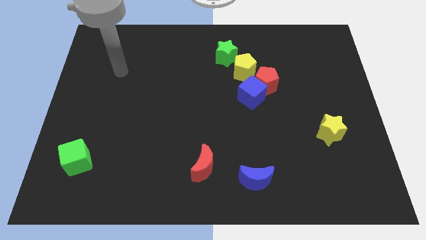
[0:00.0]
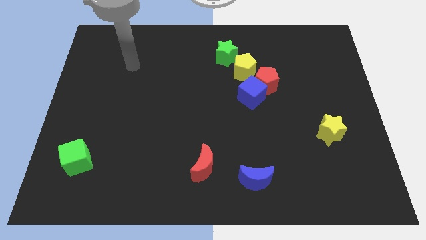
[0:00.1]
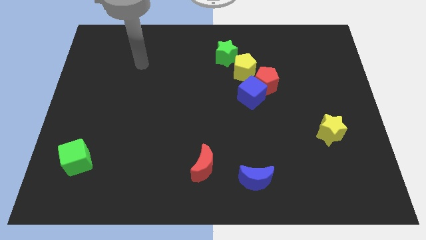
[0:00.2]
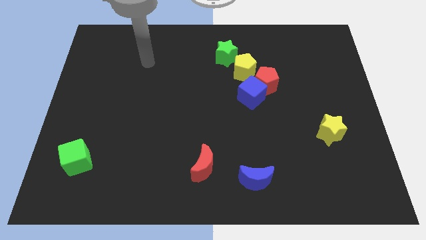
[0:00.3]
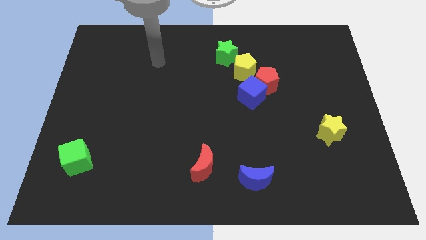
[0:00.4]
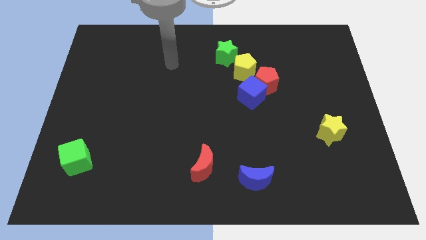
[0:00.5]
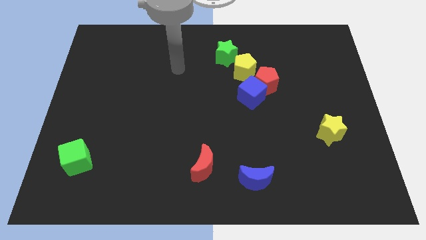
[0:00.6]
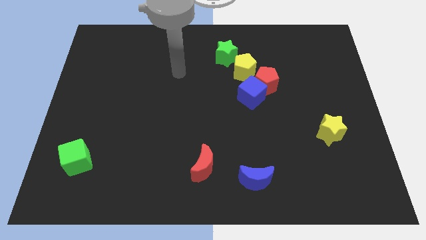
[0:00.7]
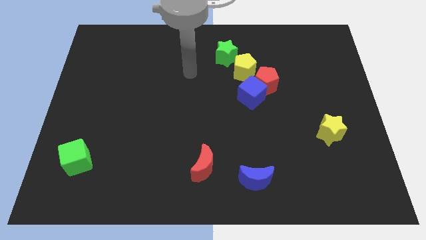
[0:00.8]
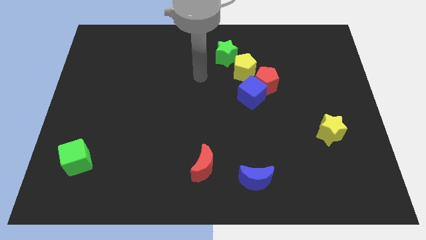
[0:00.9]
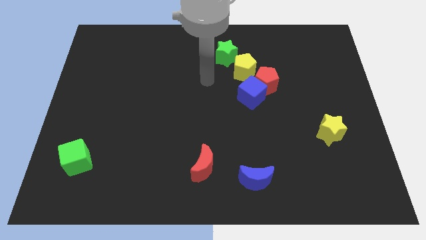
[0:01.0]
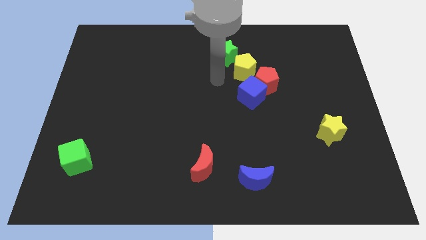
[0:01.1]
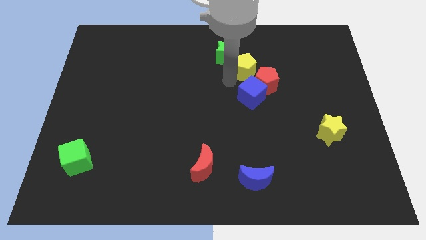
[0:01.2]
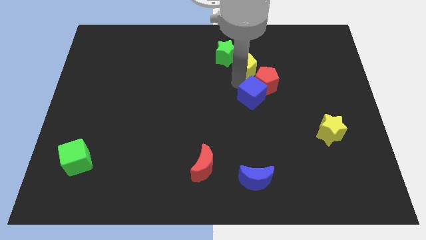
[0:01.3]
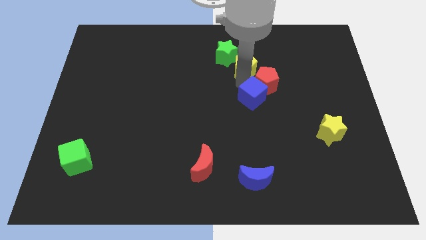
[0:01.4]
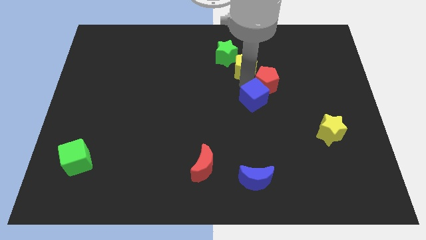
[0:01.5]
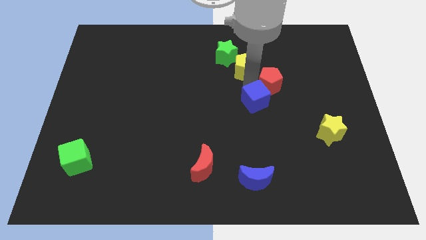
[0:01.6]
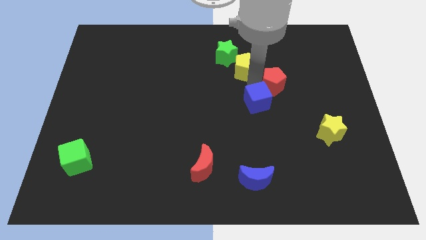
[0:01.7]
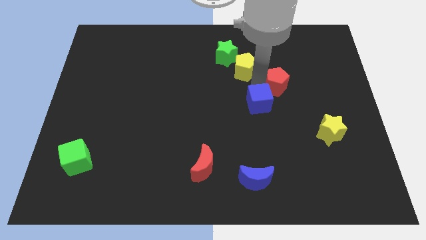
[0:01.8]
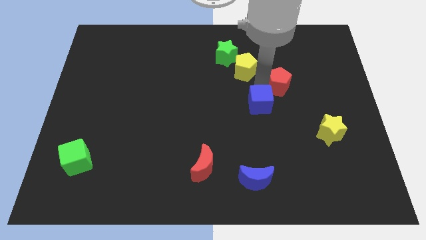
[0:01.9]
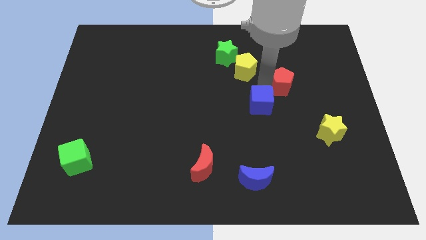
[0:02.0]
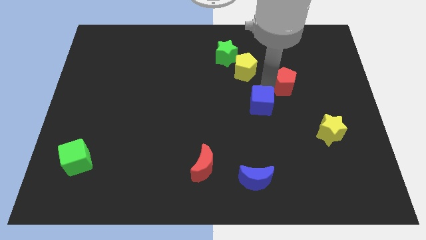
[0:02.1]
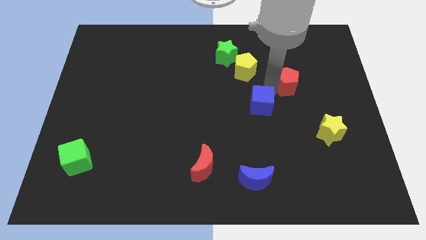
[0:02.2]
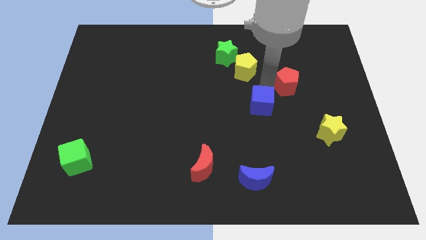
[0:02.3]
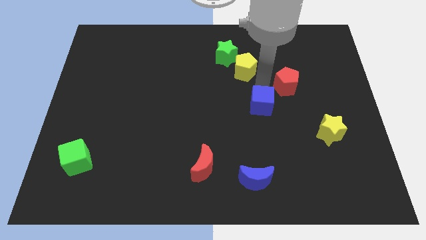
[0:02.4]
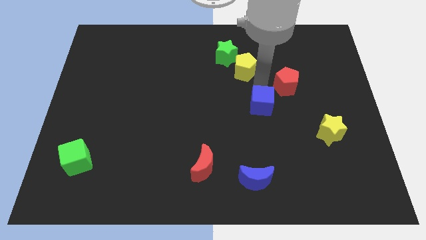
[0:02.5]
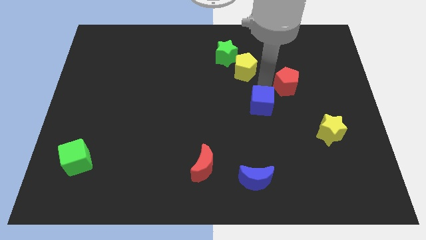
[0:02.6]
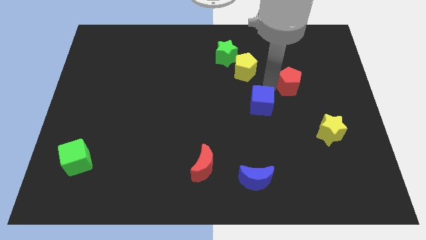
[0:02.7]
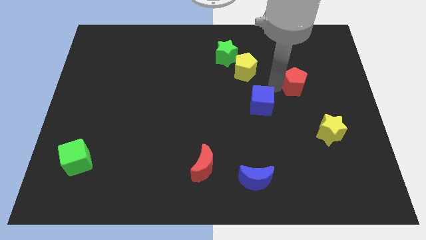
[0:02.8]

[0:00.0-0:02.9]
move the red pentagon away from the blue cube and yellow pentagon

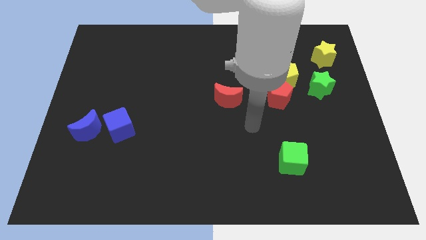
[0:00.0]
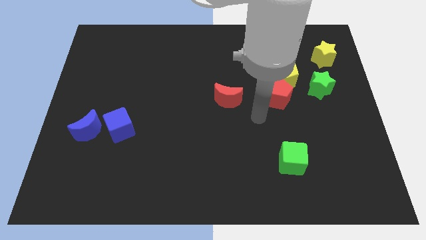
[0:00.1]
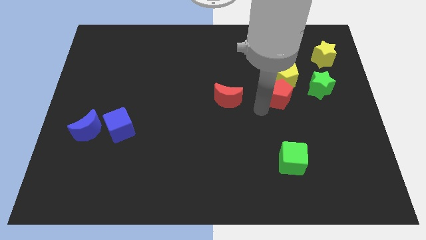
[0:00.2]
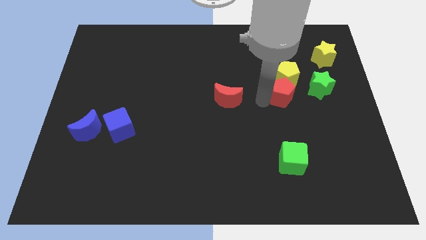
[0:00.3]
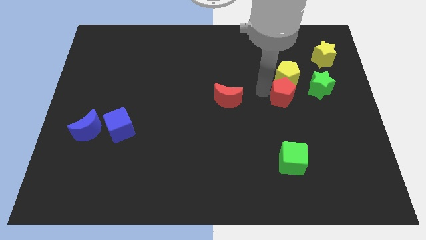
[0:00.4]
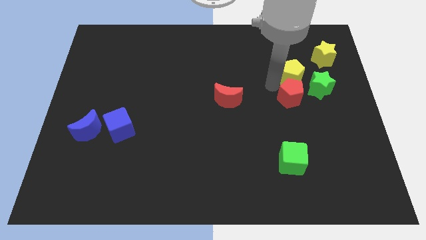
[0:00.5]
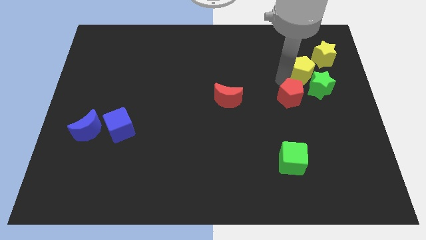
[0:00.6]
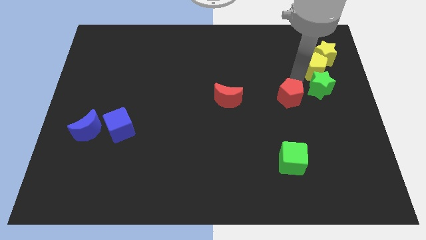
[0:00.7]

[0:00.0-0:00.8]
move the red pentagon away from the yellow pentagon

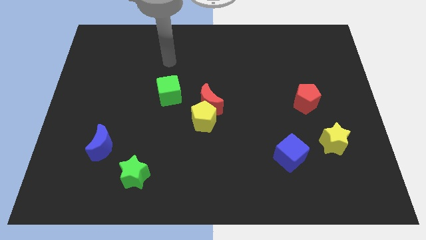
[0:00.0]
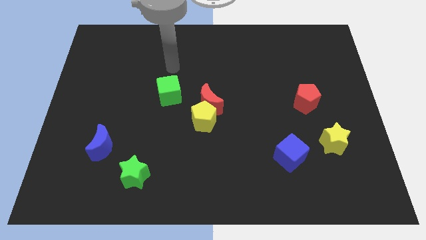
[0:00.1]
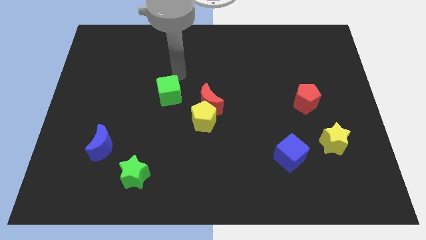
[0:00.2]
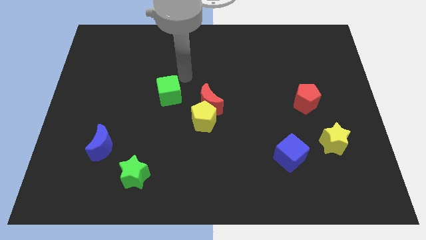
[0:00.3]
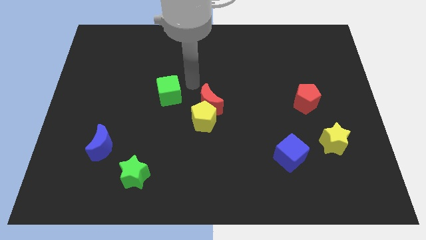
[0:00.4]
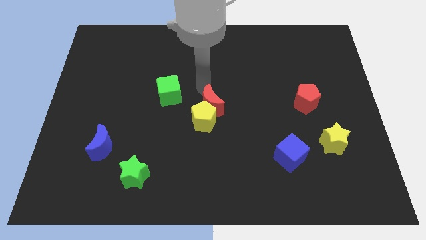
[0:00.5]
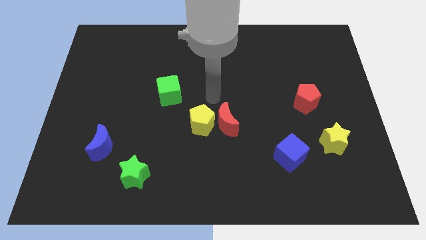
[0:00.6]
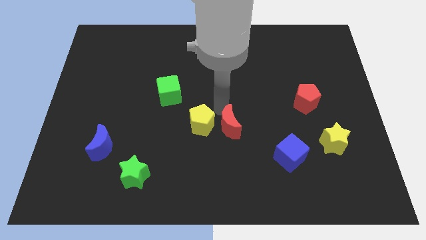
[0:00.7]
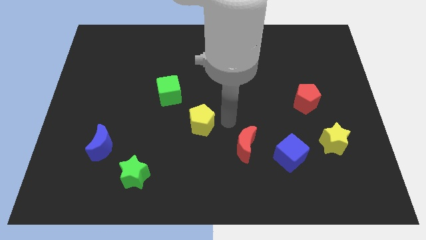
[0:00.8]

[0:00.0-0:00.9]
move the yellow pentagon away from the red moon

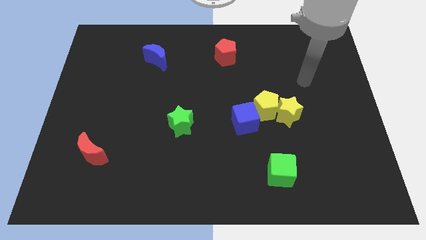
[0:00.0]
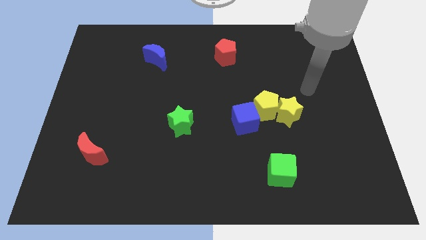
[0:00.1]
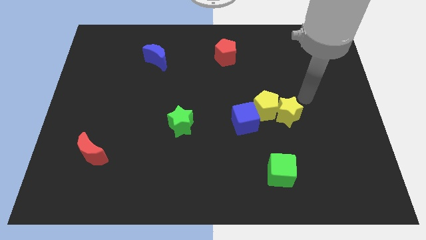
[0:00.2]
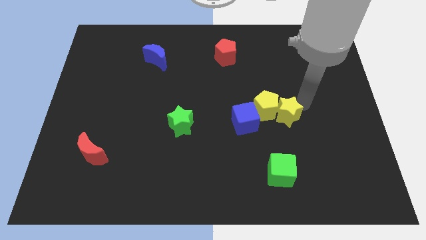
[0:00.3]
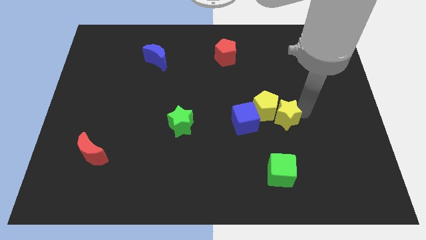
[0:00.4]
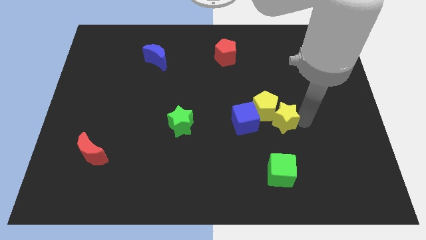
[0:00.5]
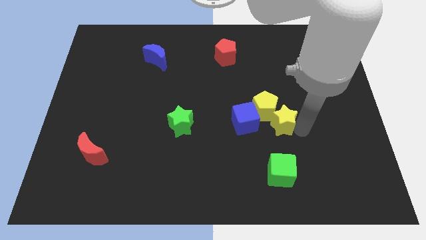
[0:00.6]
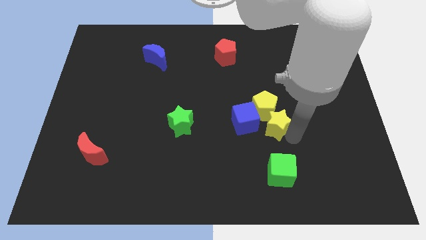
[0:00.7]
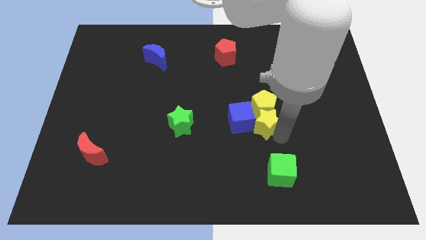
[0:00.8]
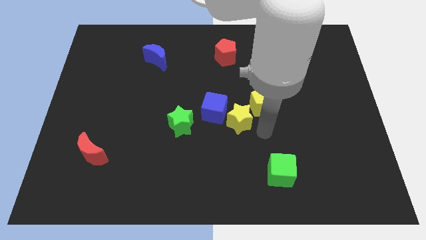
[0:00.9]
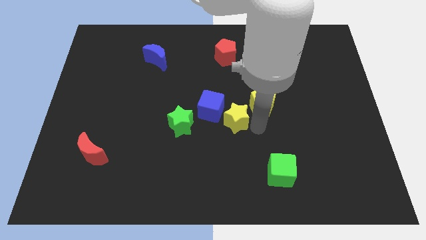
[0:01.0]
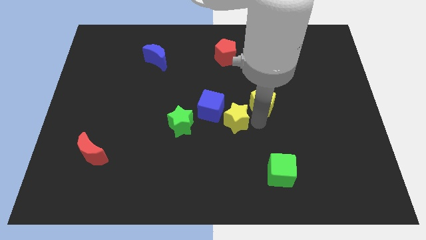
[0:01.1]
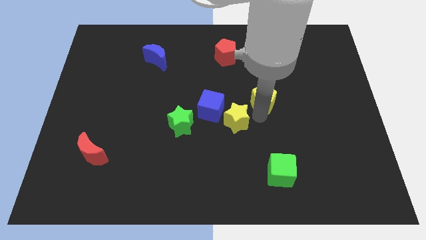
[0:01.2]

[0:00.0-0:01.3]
separate the yellow pentagon from the yellow star and blue cube

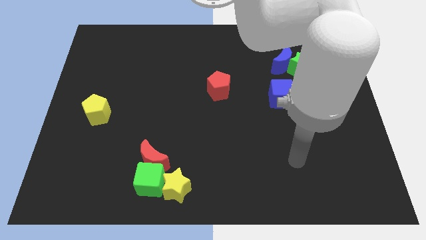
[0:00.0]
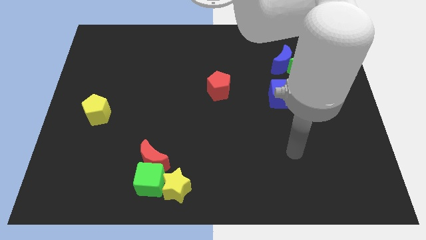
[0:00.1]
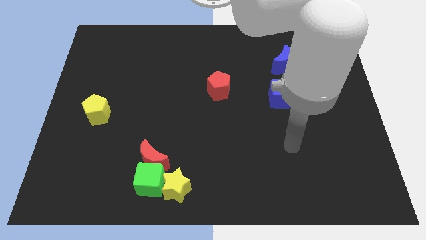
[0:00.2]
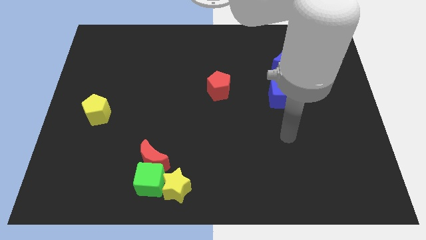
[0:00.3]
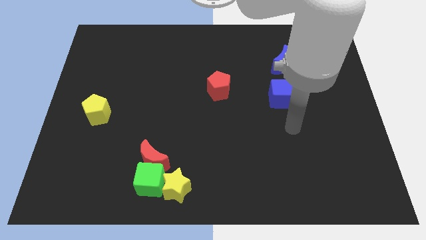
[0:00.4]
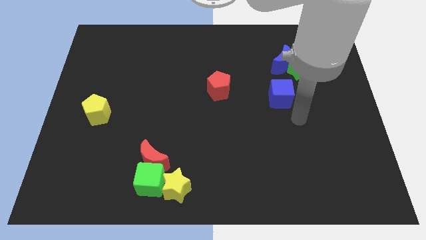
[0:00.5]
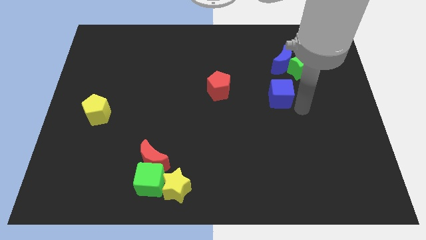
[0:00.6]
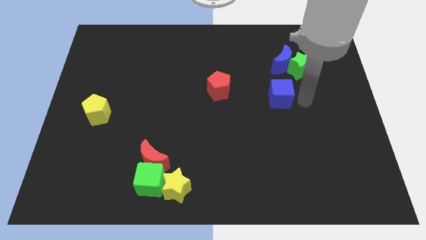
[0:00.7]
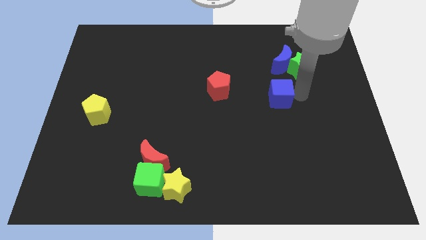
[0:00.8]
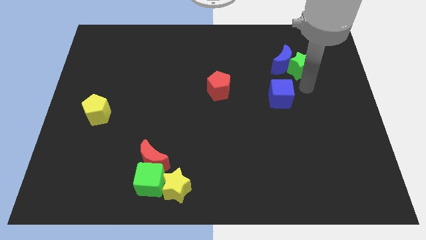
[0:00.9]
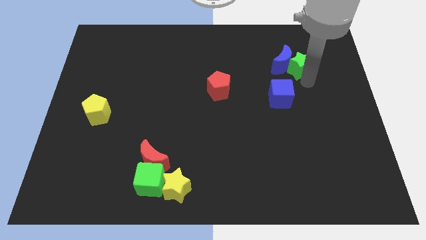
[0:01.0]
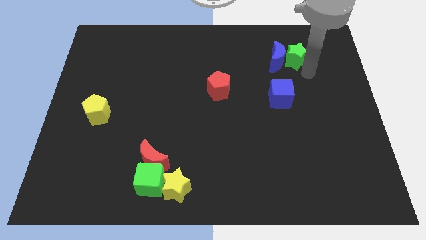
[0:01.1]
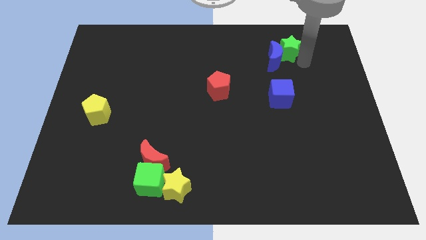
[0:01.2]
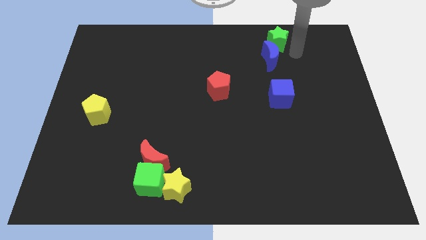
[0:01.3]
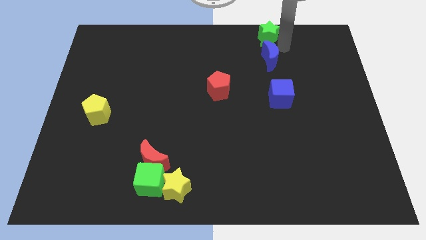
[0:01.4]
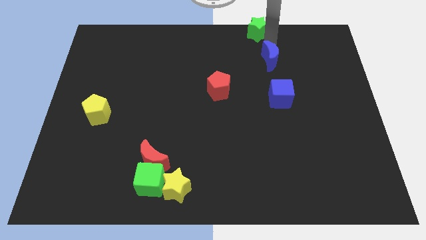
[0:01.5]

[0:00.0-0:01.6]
move the blue moon away from the green star

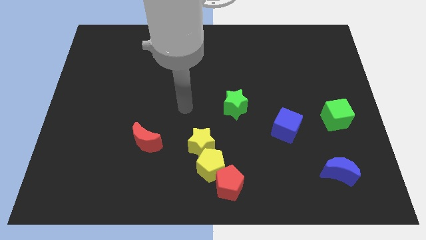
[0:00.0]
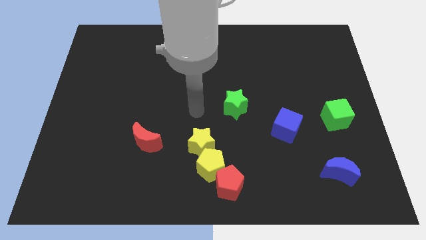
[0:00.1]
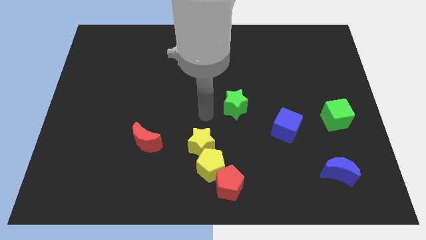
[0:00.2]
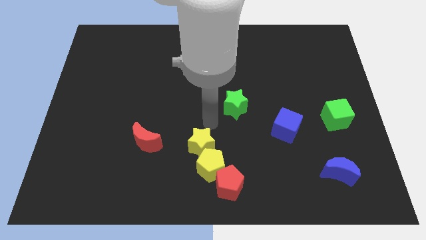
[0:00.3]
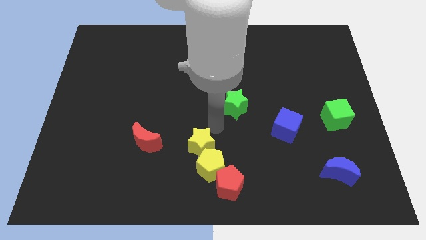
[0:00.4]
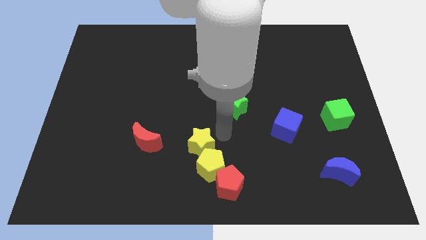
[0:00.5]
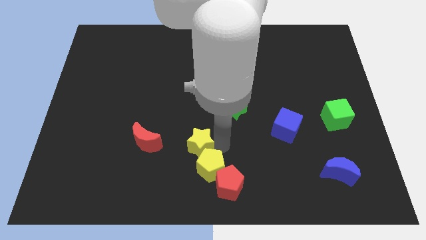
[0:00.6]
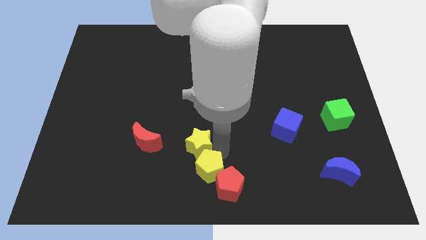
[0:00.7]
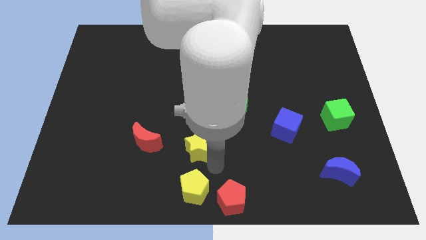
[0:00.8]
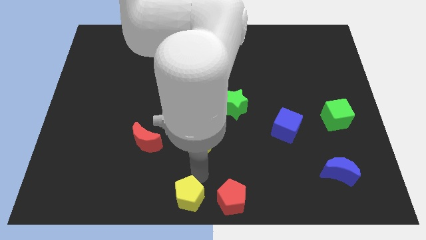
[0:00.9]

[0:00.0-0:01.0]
pull the yellow star apart from the yellow pentagon

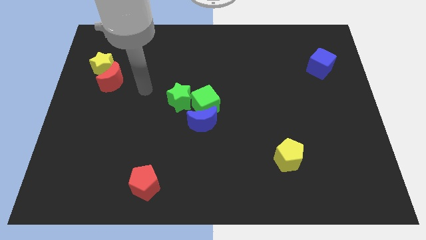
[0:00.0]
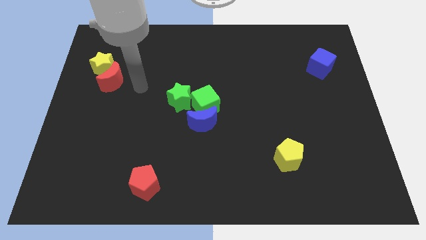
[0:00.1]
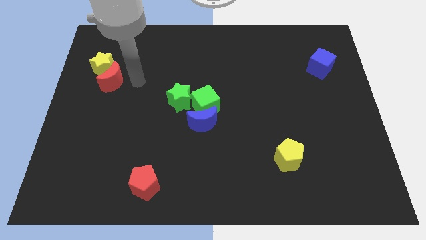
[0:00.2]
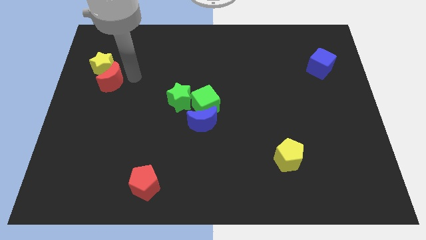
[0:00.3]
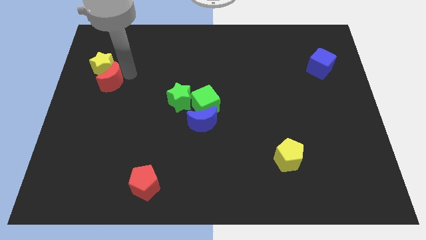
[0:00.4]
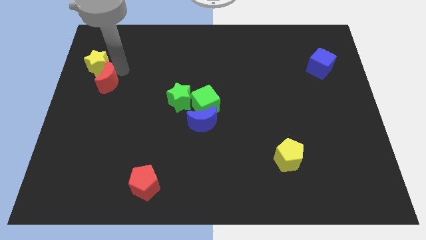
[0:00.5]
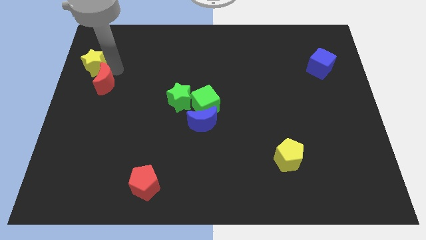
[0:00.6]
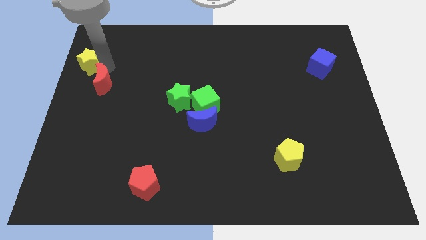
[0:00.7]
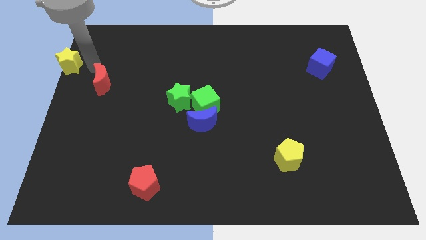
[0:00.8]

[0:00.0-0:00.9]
separate the red moon from the yellow star
